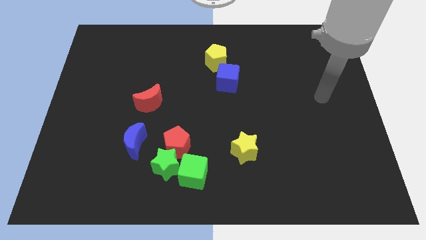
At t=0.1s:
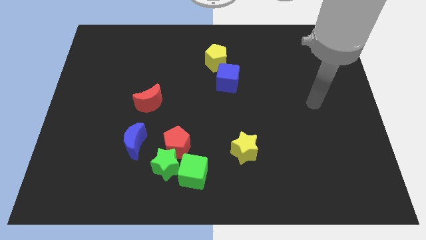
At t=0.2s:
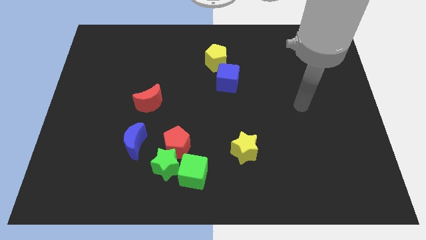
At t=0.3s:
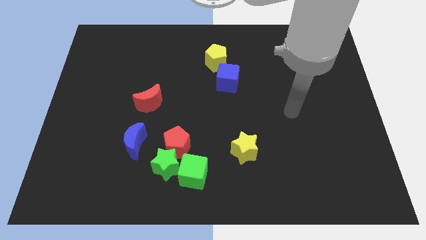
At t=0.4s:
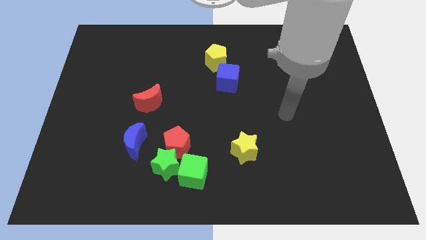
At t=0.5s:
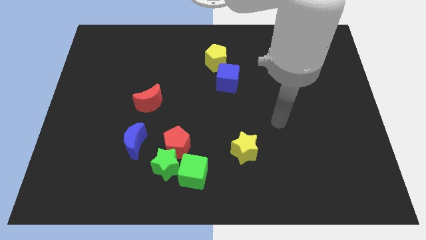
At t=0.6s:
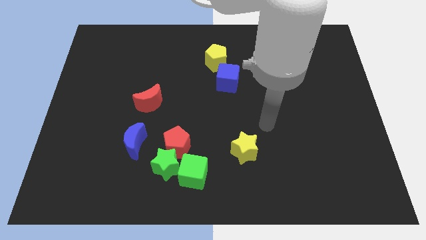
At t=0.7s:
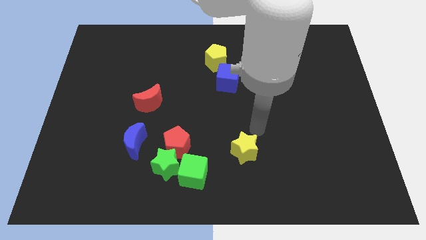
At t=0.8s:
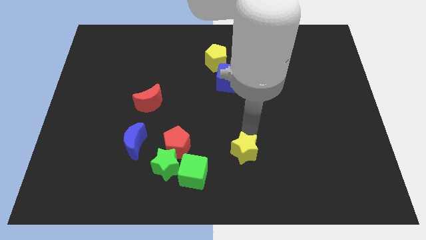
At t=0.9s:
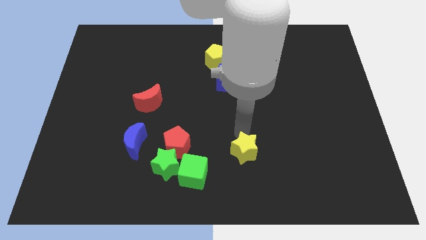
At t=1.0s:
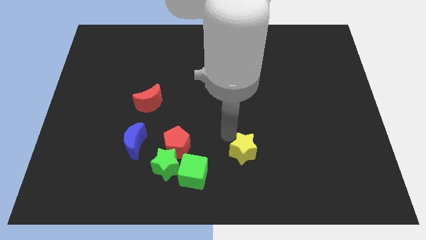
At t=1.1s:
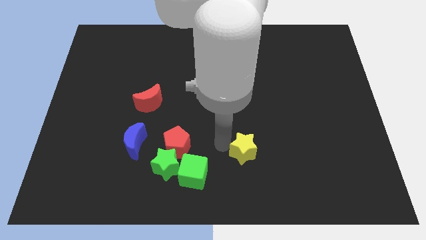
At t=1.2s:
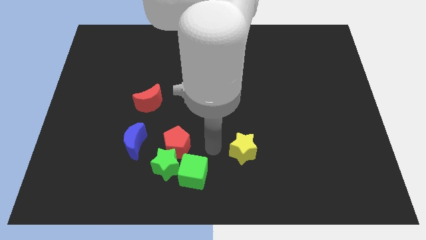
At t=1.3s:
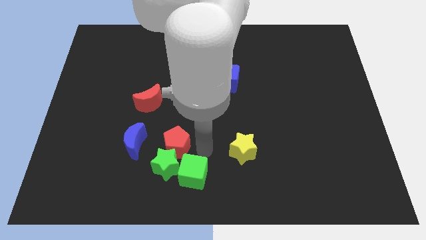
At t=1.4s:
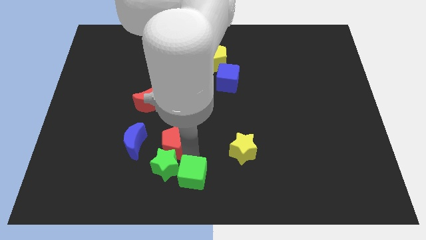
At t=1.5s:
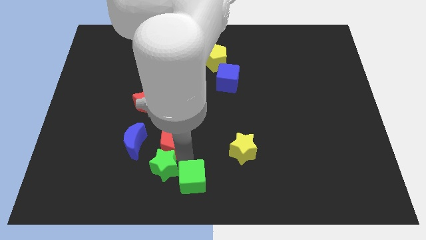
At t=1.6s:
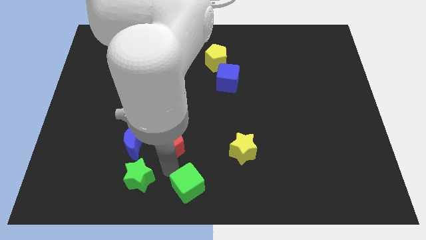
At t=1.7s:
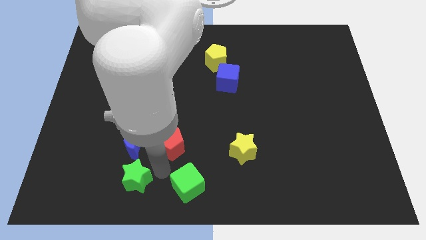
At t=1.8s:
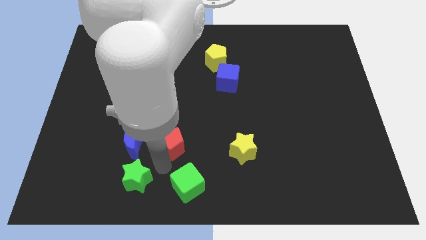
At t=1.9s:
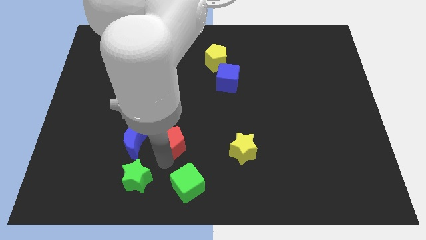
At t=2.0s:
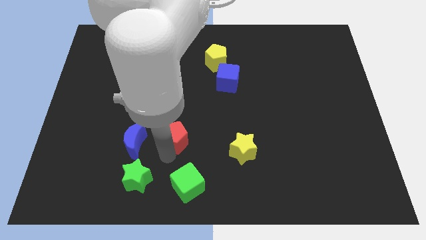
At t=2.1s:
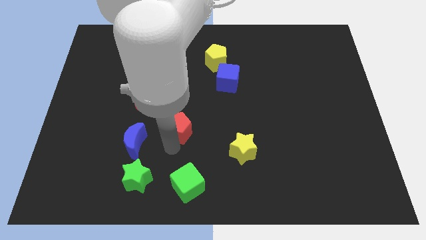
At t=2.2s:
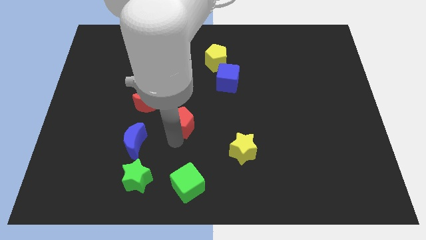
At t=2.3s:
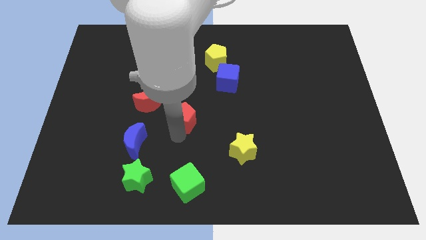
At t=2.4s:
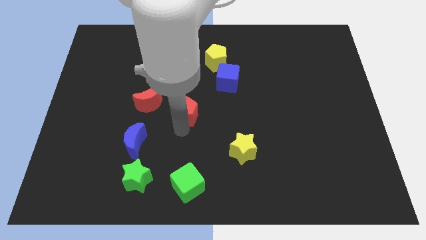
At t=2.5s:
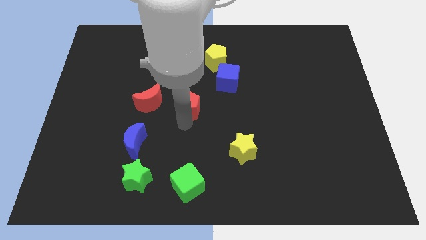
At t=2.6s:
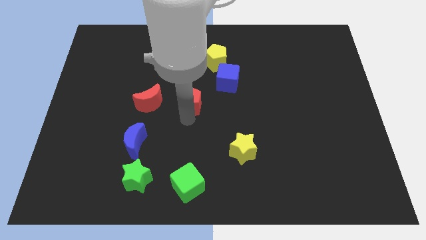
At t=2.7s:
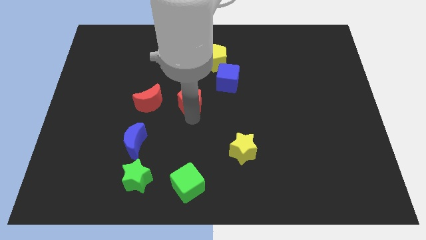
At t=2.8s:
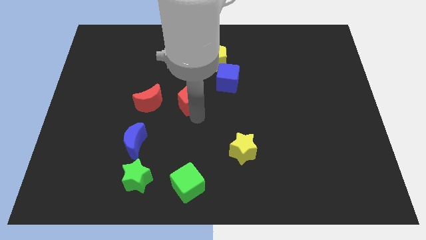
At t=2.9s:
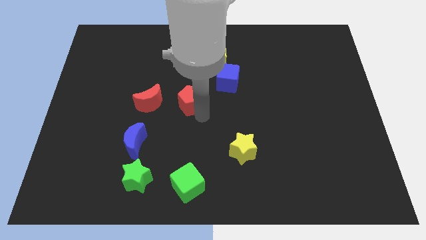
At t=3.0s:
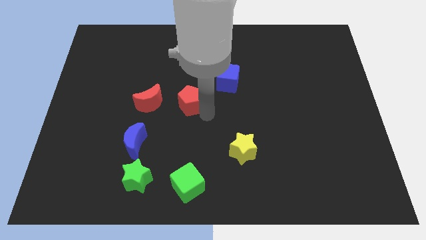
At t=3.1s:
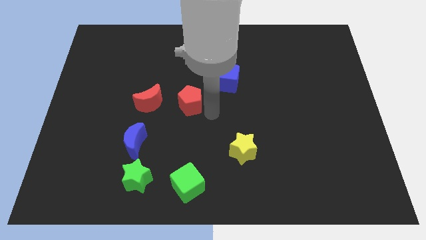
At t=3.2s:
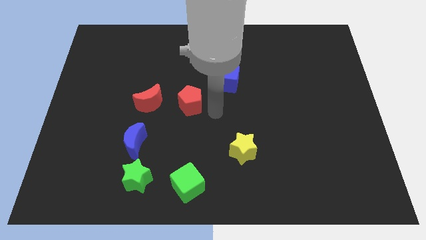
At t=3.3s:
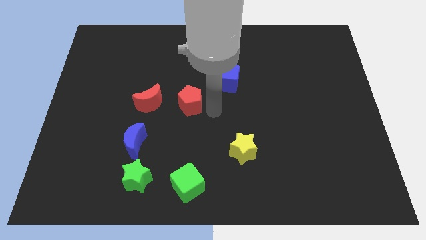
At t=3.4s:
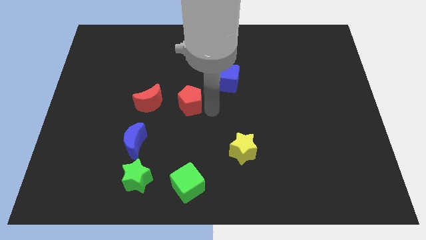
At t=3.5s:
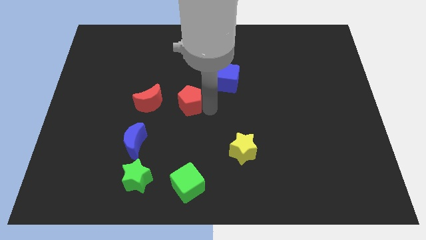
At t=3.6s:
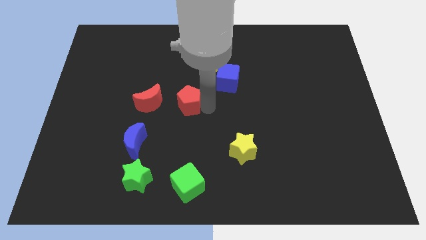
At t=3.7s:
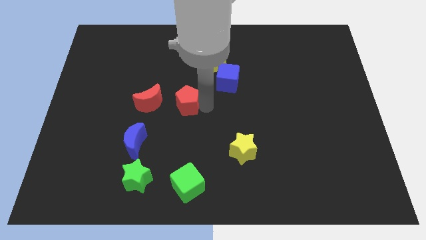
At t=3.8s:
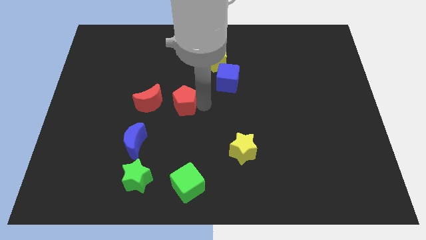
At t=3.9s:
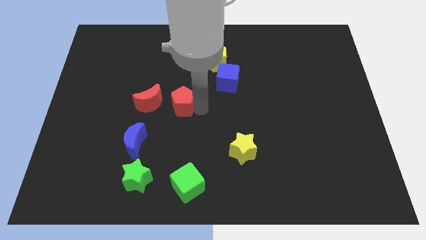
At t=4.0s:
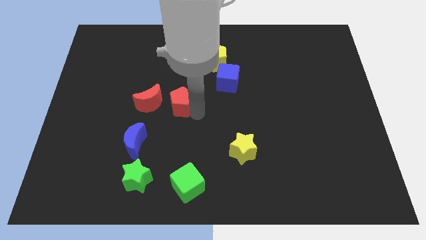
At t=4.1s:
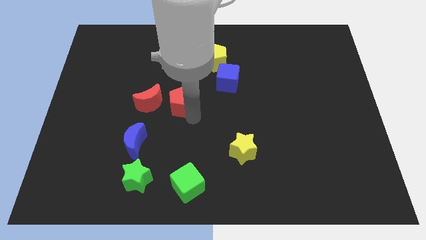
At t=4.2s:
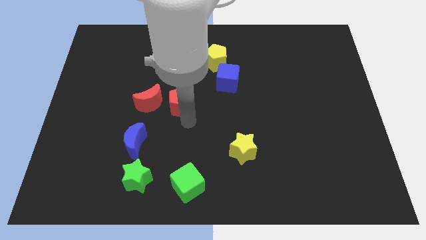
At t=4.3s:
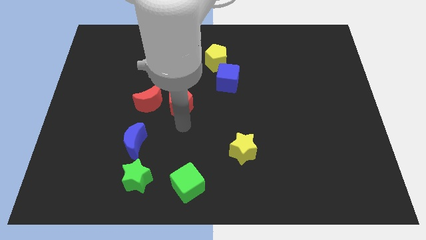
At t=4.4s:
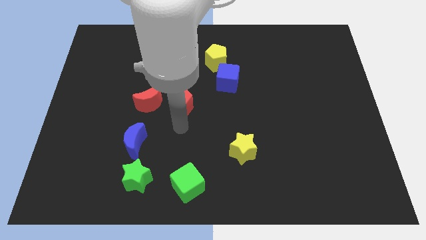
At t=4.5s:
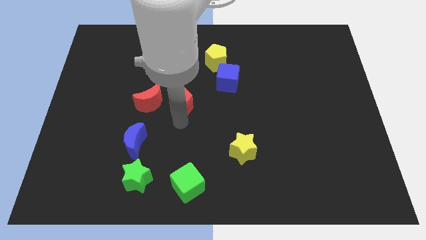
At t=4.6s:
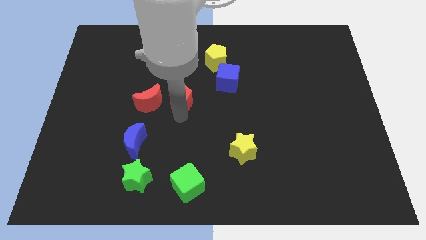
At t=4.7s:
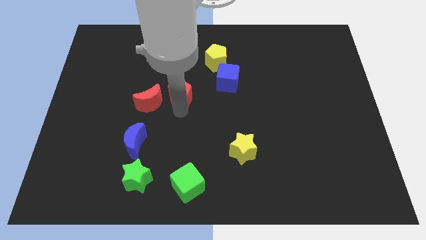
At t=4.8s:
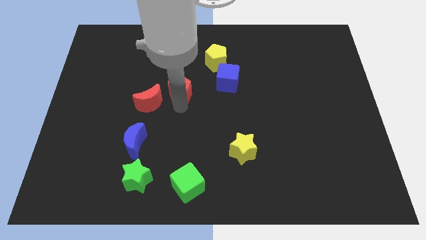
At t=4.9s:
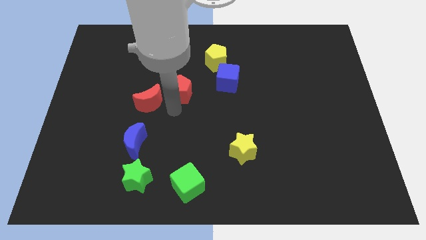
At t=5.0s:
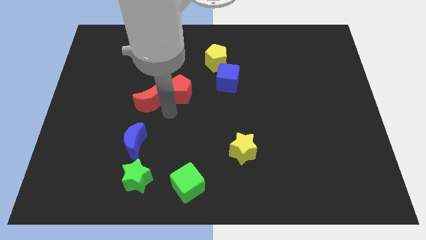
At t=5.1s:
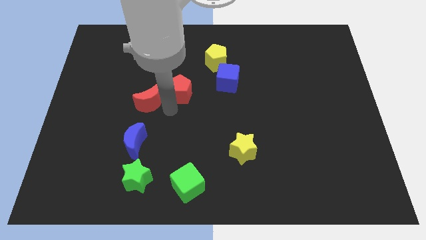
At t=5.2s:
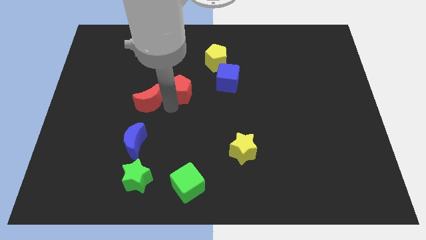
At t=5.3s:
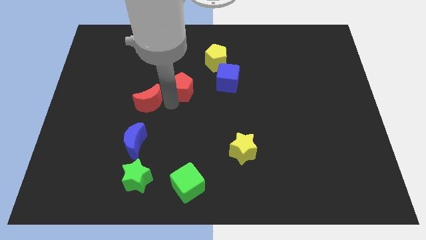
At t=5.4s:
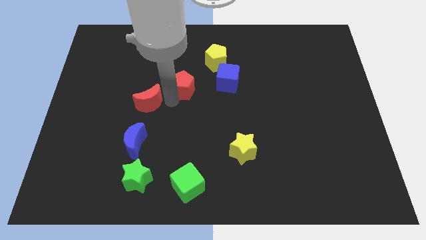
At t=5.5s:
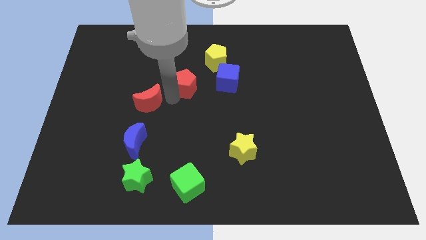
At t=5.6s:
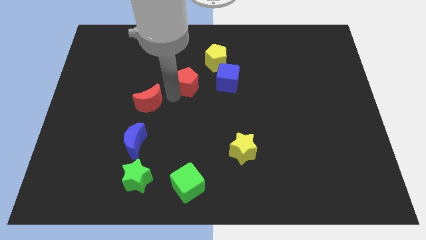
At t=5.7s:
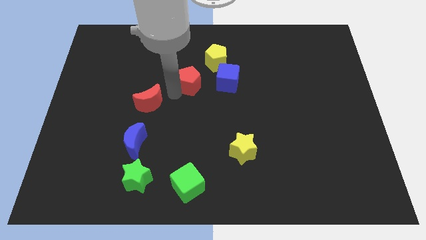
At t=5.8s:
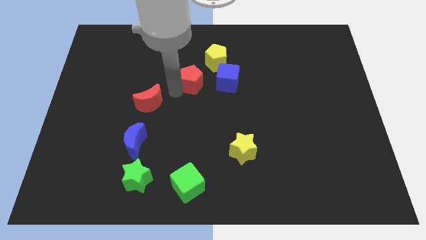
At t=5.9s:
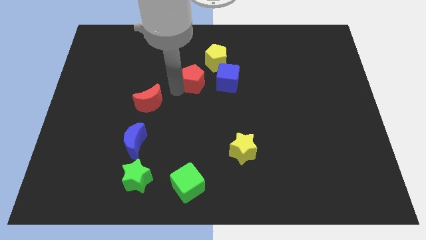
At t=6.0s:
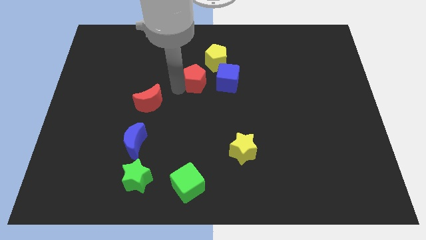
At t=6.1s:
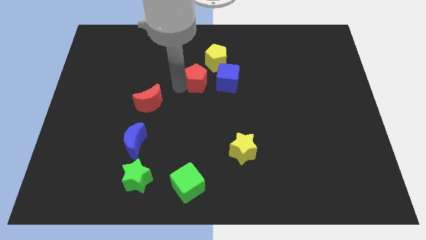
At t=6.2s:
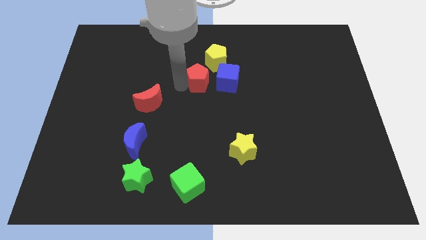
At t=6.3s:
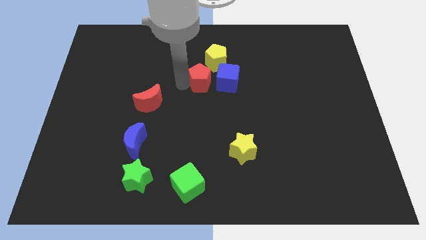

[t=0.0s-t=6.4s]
move the red pentagon to the top left of the blue cube

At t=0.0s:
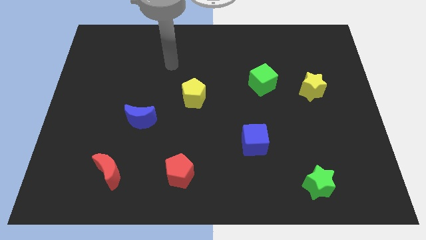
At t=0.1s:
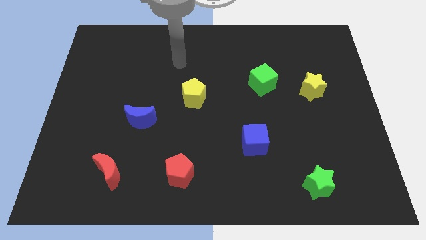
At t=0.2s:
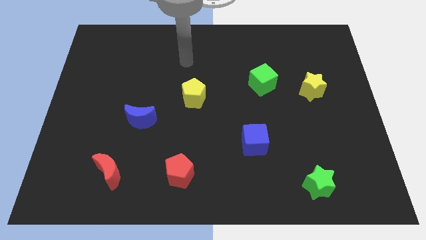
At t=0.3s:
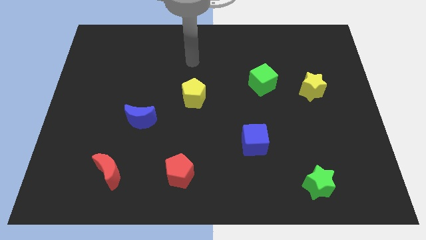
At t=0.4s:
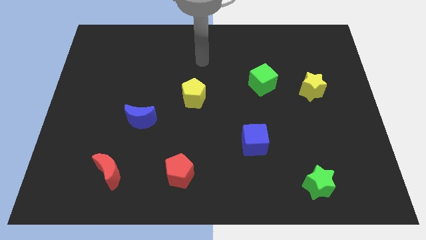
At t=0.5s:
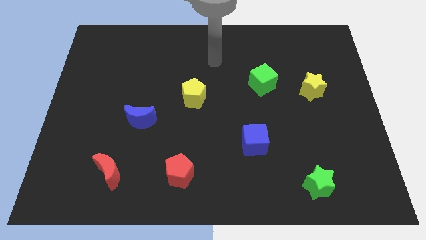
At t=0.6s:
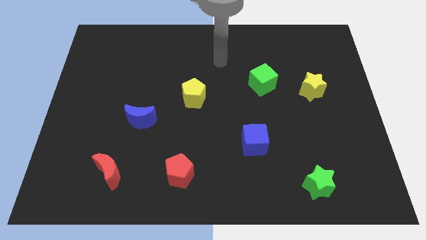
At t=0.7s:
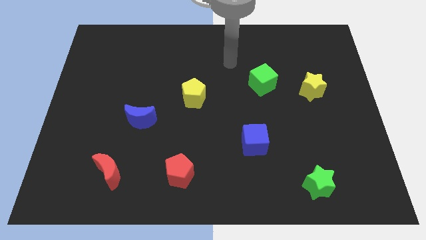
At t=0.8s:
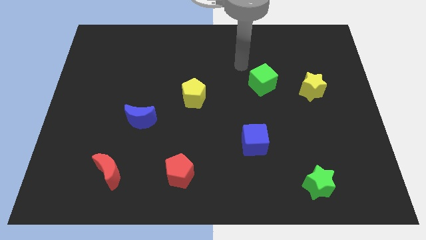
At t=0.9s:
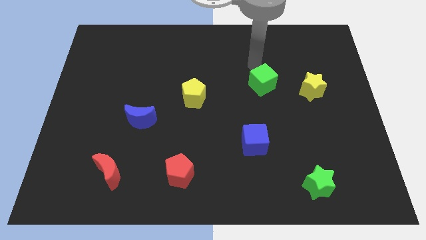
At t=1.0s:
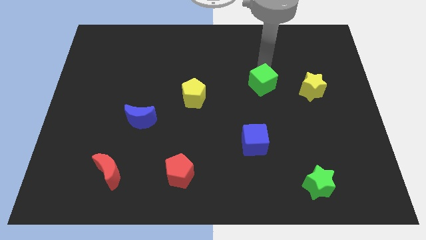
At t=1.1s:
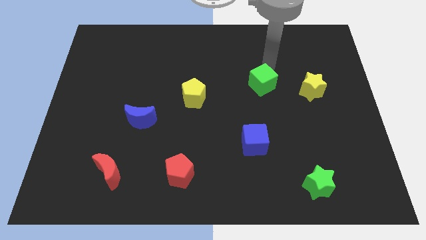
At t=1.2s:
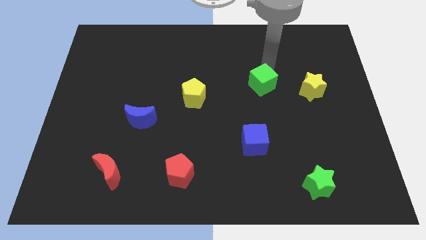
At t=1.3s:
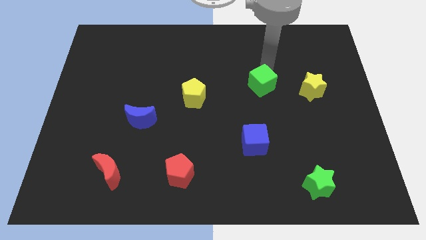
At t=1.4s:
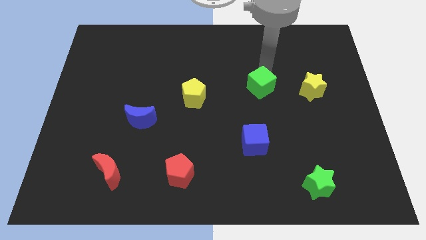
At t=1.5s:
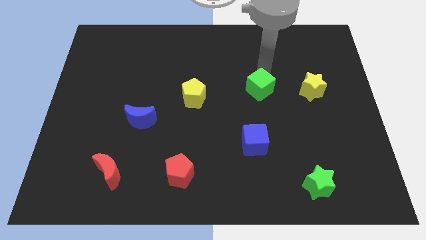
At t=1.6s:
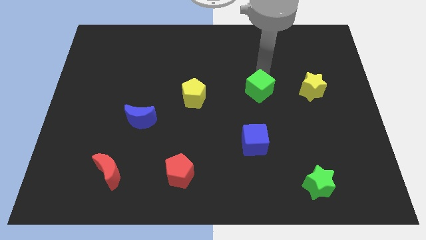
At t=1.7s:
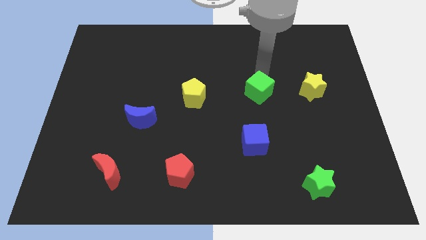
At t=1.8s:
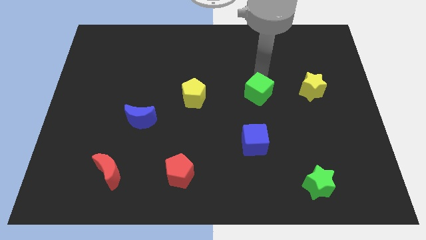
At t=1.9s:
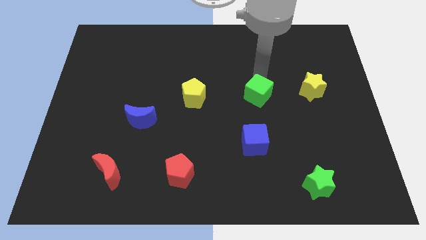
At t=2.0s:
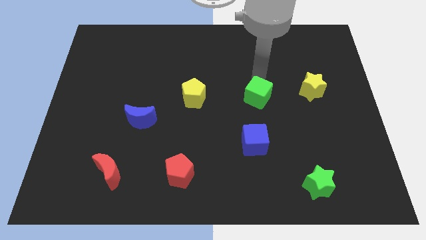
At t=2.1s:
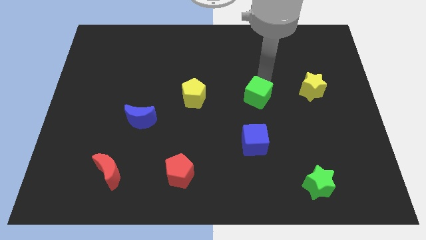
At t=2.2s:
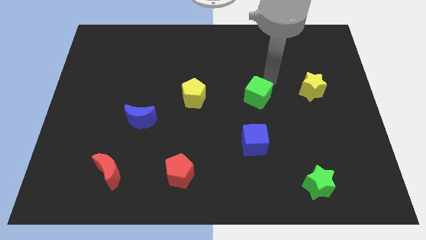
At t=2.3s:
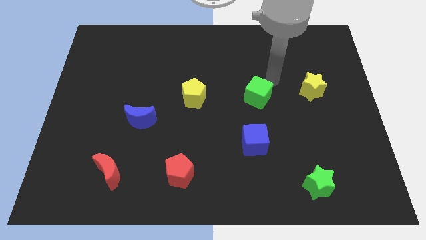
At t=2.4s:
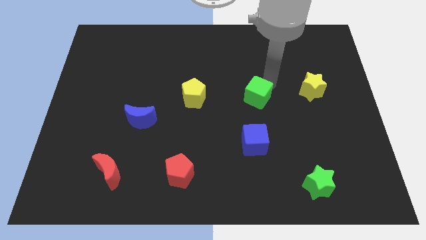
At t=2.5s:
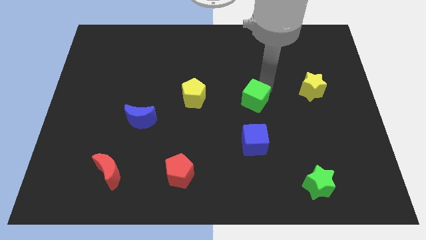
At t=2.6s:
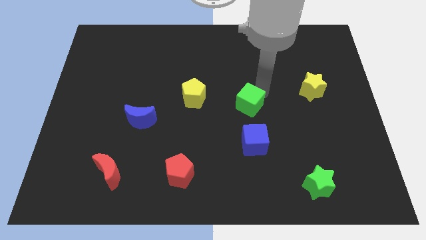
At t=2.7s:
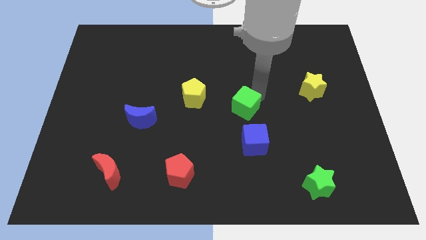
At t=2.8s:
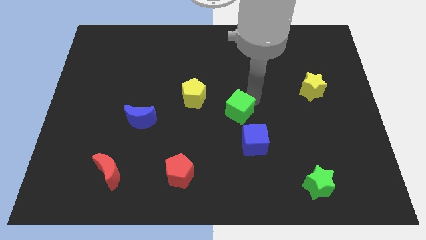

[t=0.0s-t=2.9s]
push the green cube to the top left of the blue cube
